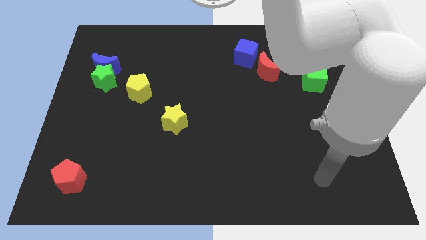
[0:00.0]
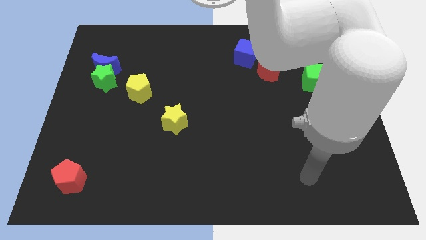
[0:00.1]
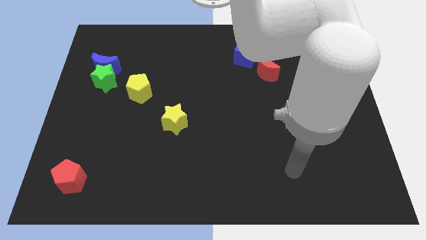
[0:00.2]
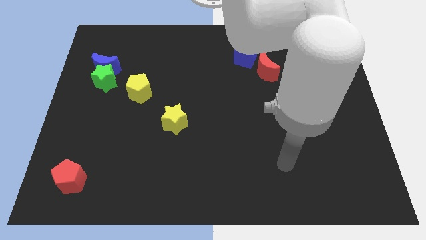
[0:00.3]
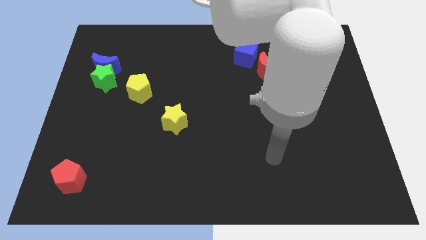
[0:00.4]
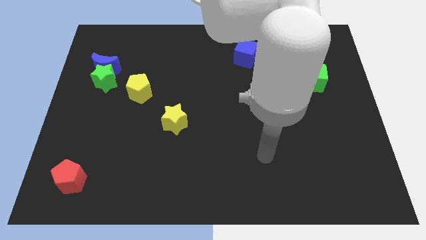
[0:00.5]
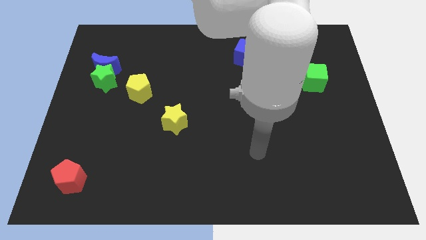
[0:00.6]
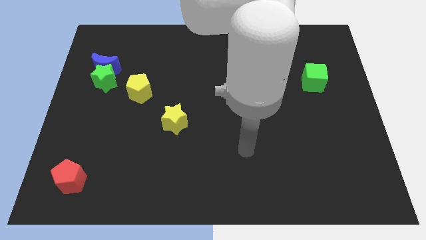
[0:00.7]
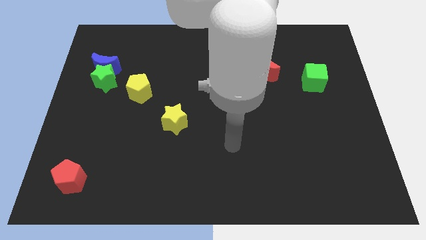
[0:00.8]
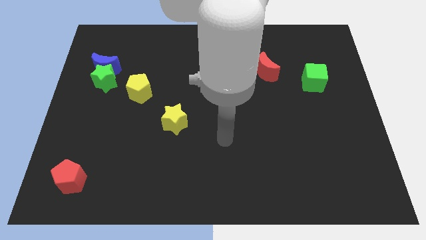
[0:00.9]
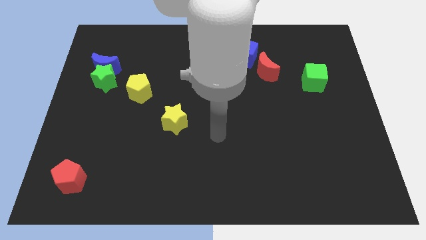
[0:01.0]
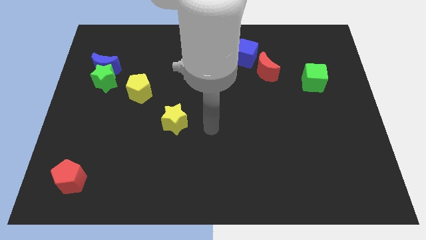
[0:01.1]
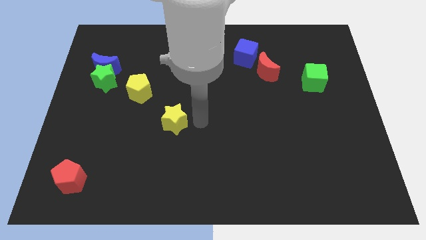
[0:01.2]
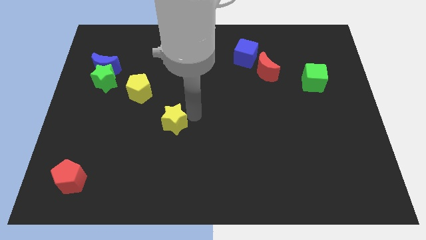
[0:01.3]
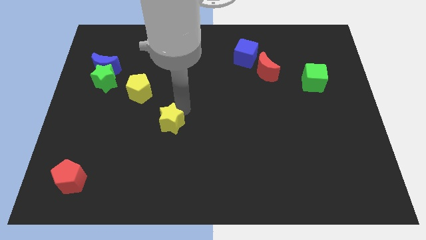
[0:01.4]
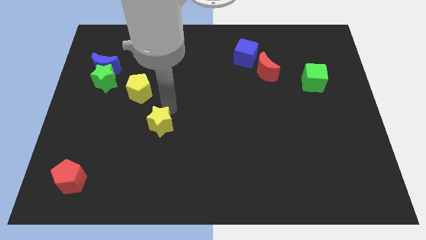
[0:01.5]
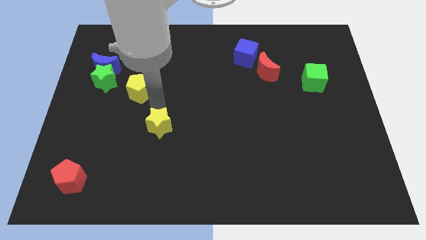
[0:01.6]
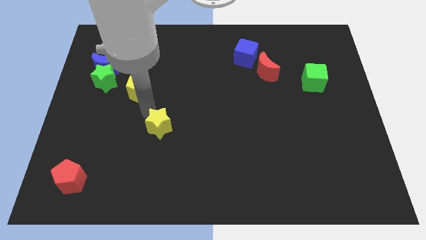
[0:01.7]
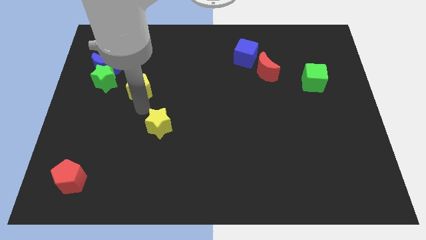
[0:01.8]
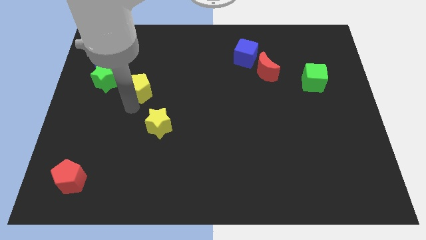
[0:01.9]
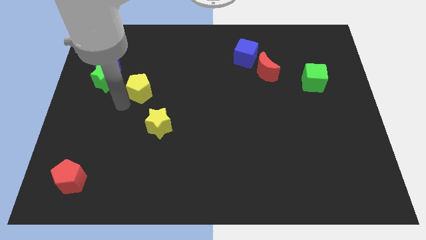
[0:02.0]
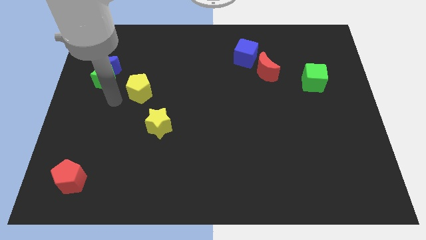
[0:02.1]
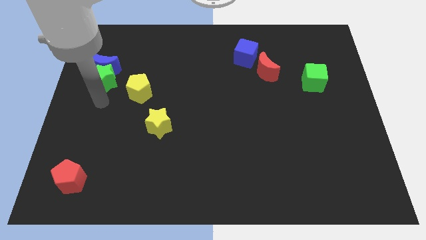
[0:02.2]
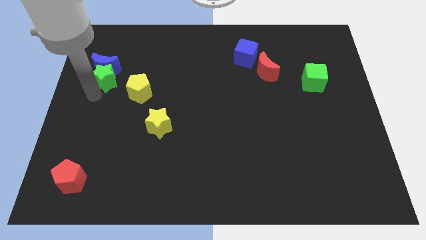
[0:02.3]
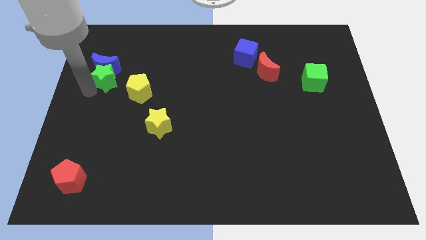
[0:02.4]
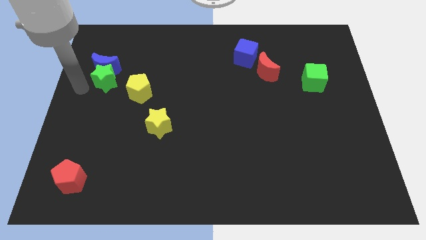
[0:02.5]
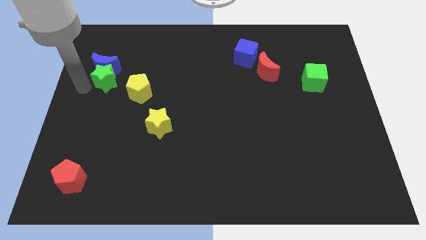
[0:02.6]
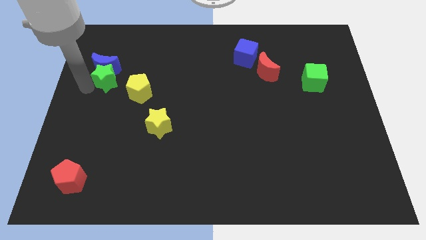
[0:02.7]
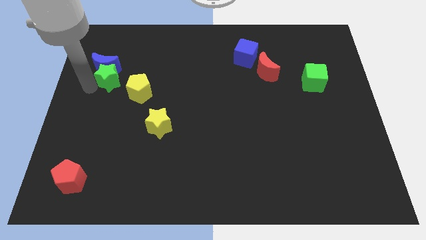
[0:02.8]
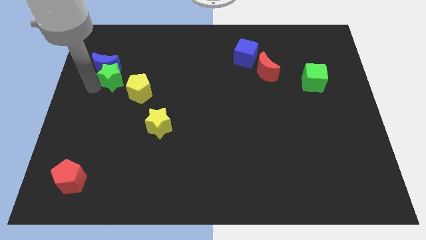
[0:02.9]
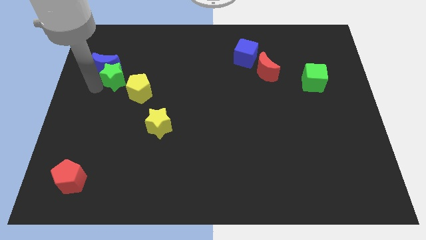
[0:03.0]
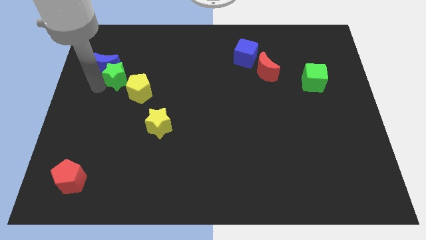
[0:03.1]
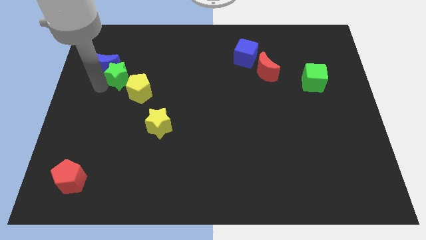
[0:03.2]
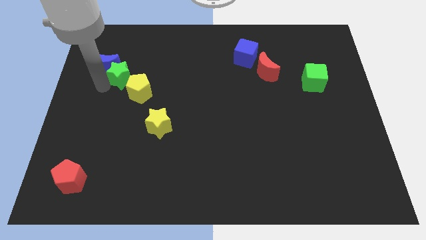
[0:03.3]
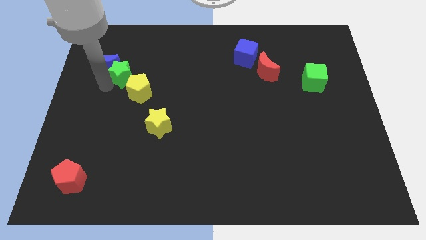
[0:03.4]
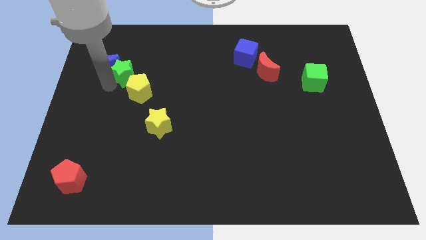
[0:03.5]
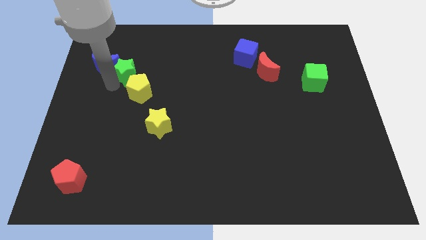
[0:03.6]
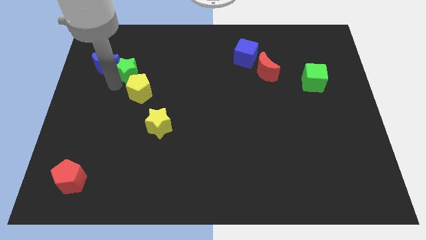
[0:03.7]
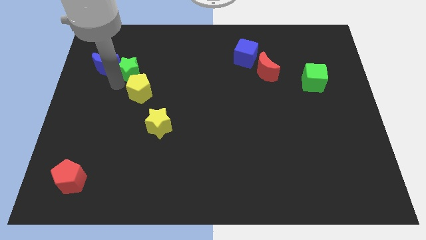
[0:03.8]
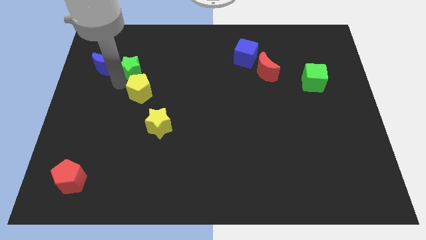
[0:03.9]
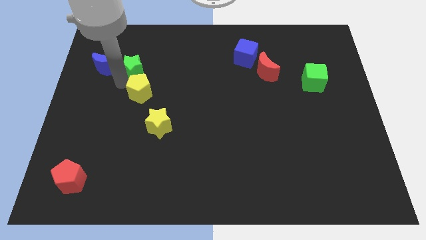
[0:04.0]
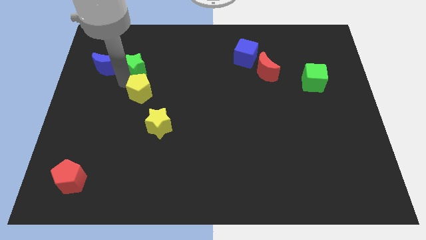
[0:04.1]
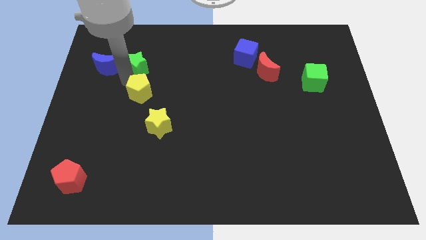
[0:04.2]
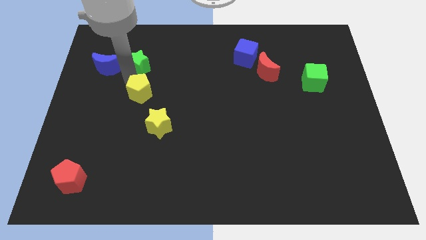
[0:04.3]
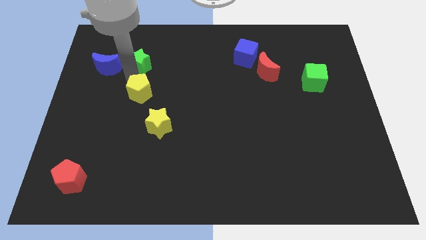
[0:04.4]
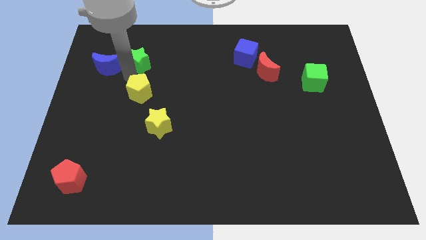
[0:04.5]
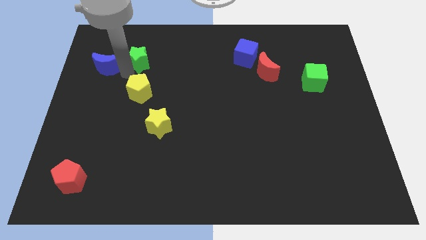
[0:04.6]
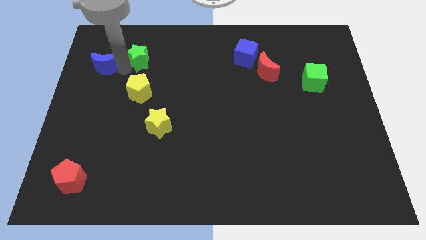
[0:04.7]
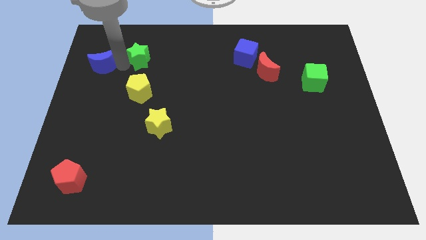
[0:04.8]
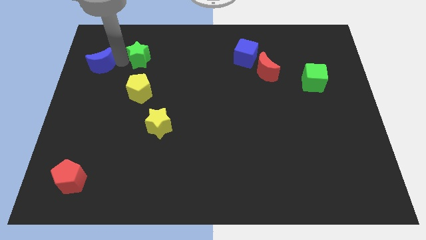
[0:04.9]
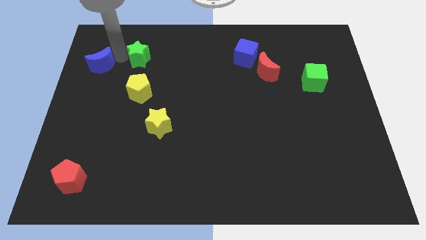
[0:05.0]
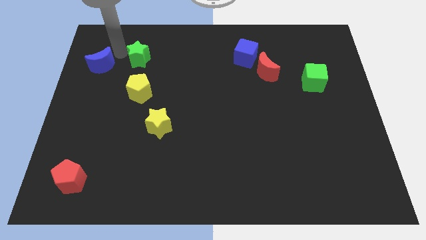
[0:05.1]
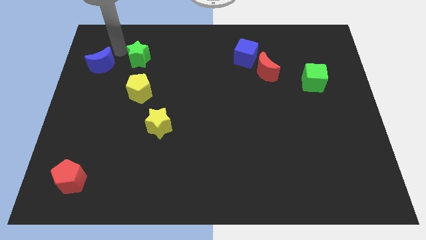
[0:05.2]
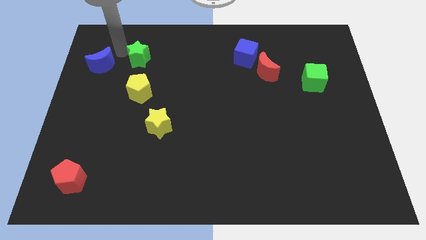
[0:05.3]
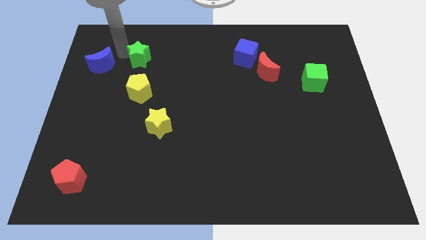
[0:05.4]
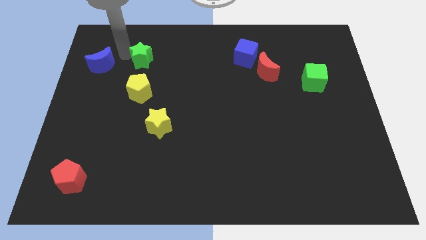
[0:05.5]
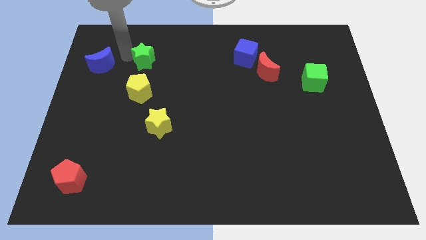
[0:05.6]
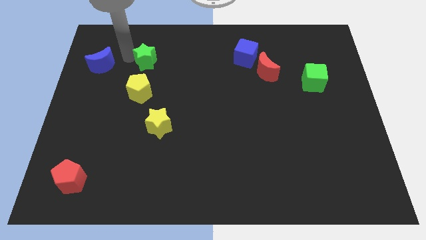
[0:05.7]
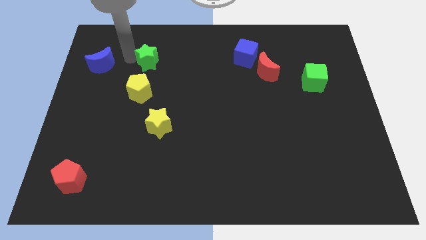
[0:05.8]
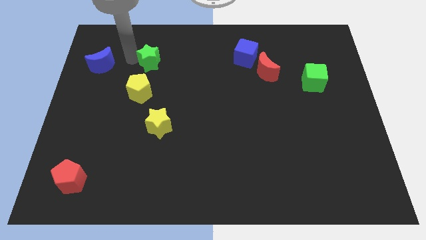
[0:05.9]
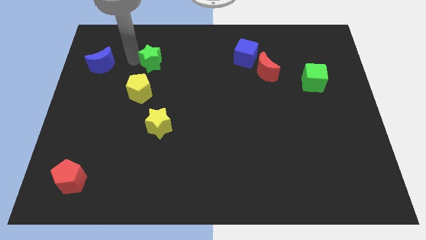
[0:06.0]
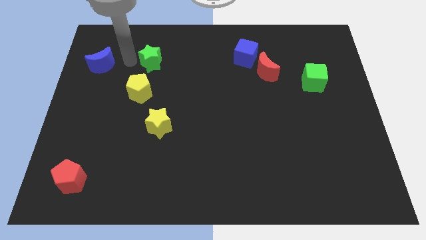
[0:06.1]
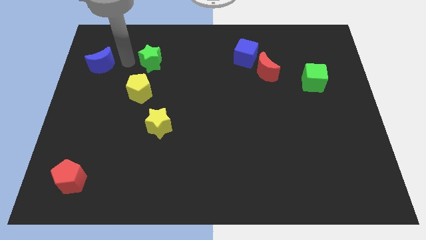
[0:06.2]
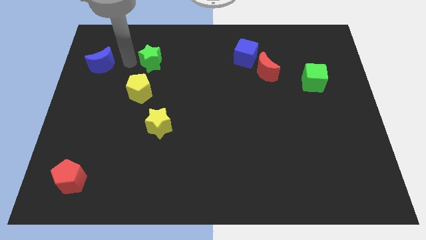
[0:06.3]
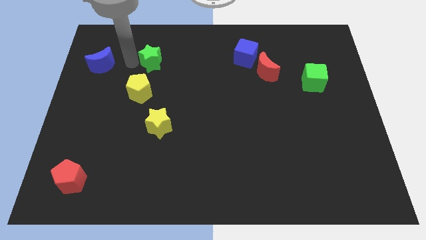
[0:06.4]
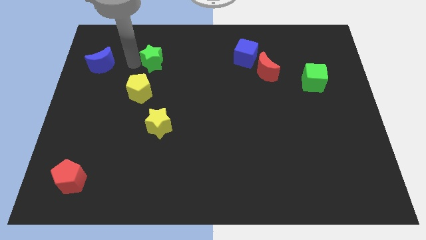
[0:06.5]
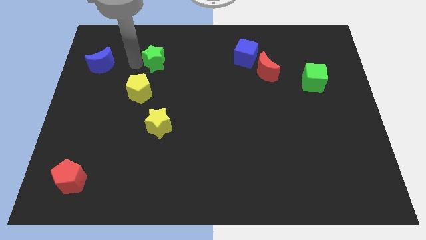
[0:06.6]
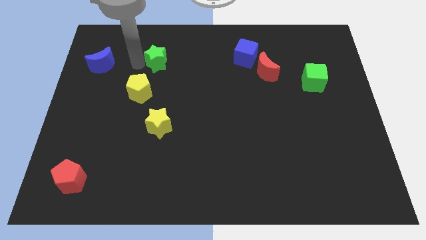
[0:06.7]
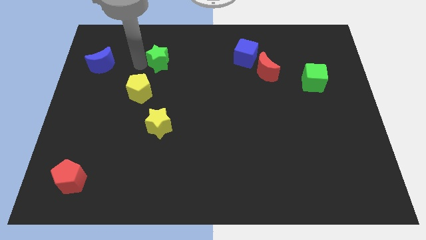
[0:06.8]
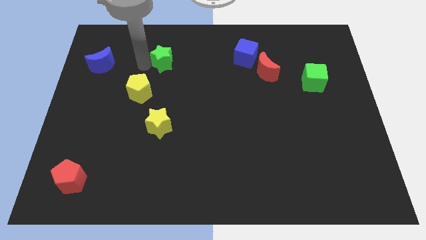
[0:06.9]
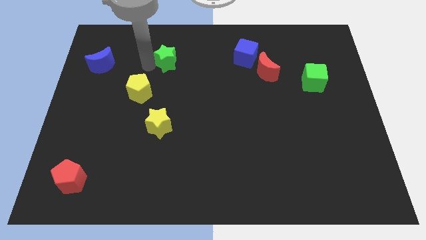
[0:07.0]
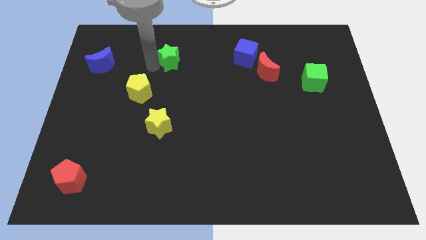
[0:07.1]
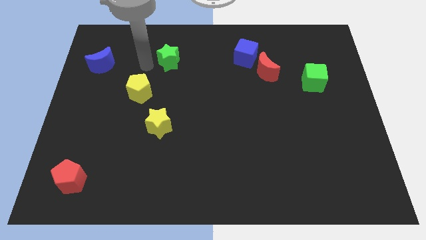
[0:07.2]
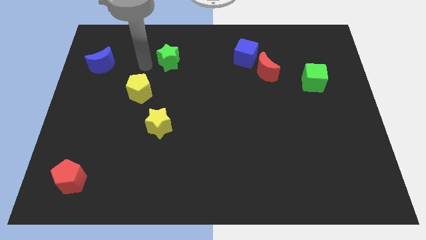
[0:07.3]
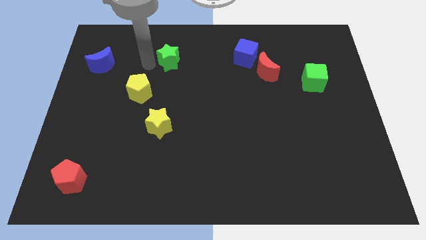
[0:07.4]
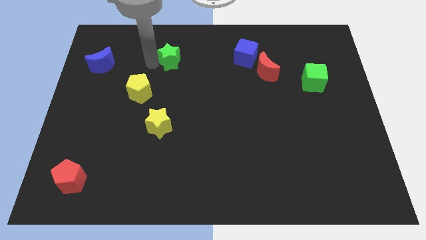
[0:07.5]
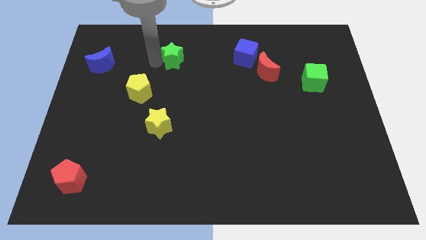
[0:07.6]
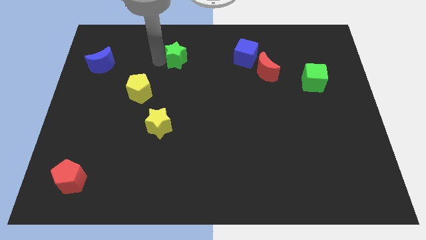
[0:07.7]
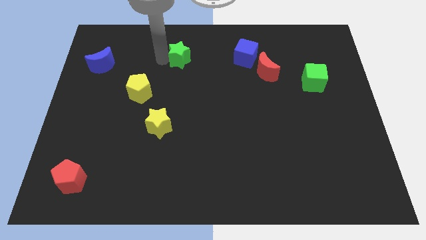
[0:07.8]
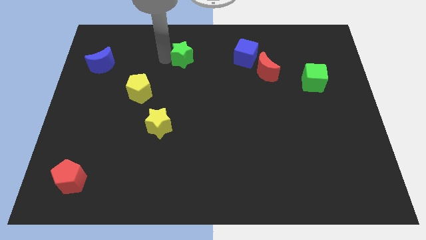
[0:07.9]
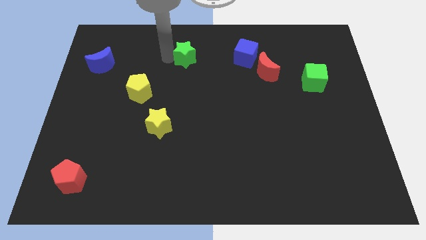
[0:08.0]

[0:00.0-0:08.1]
push the green star left of the blue cube
